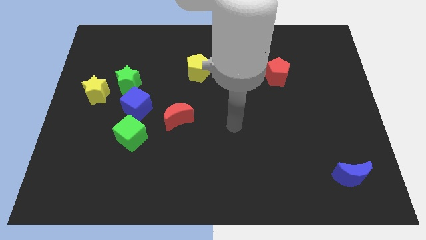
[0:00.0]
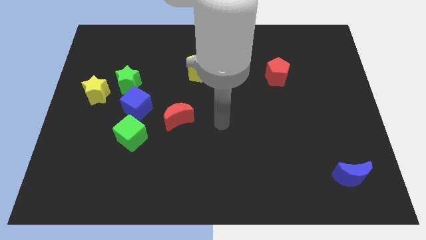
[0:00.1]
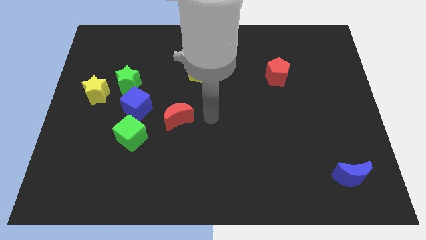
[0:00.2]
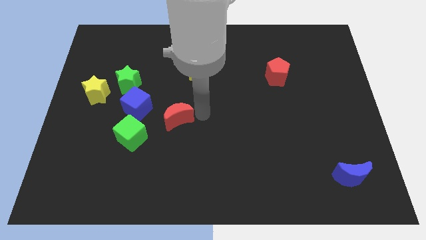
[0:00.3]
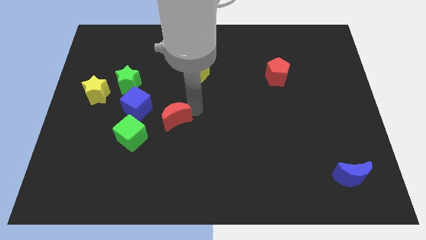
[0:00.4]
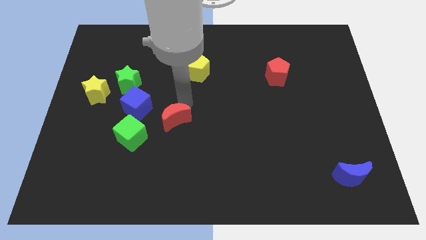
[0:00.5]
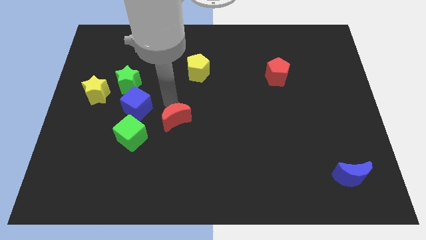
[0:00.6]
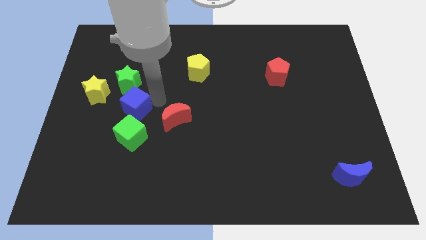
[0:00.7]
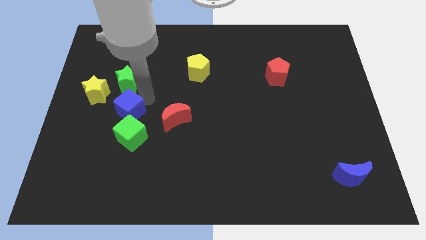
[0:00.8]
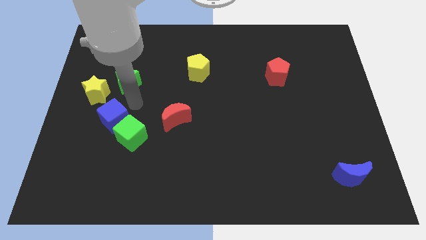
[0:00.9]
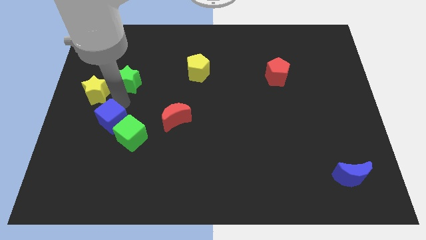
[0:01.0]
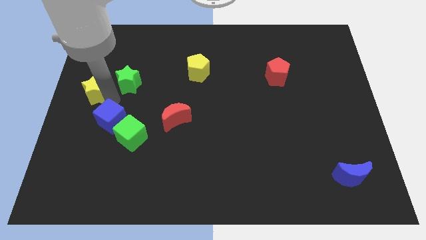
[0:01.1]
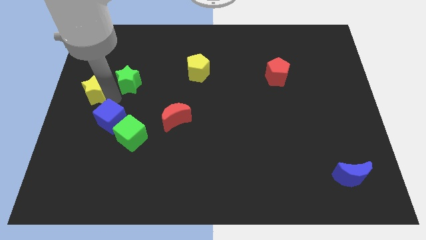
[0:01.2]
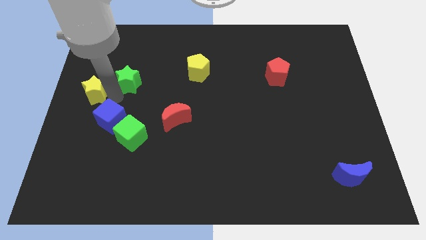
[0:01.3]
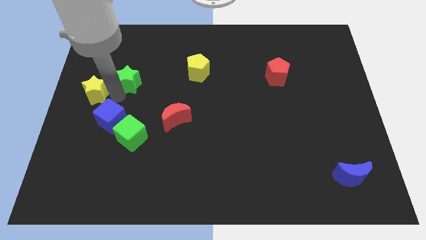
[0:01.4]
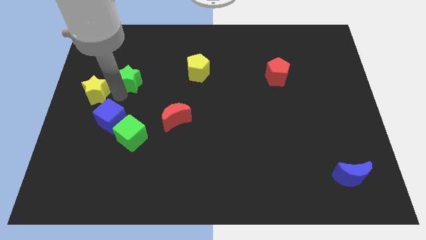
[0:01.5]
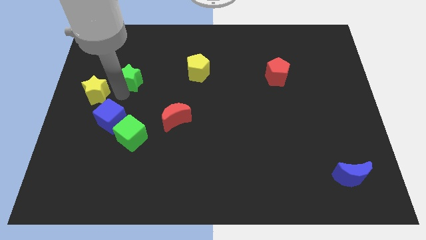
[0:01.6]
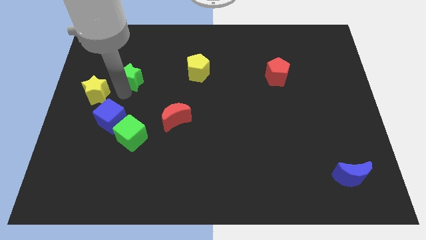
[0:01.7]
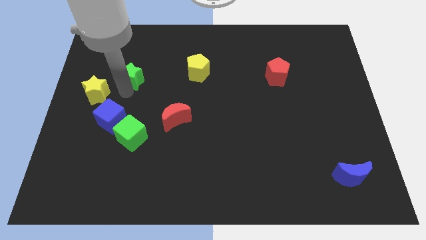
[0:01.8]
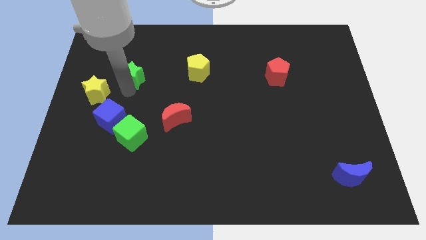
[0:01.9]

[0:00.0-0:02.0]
pull the green star apart from the blue cube and yellow star

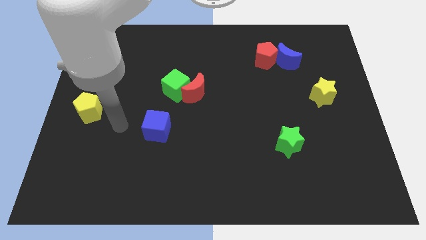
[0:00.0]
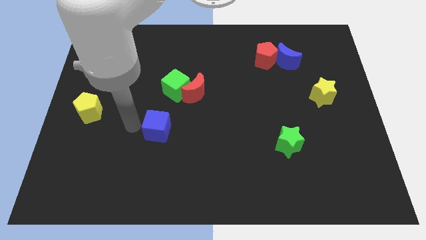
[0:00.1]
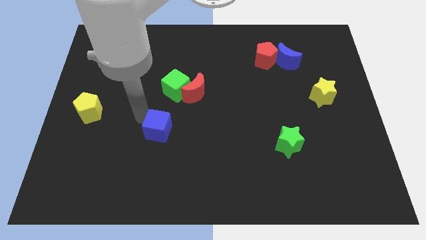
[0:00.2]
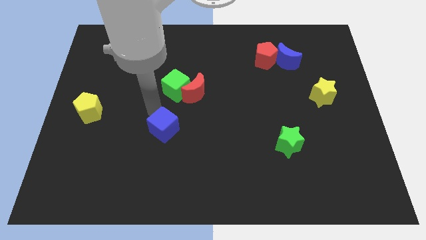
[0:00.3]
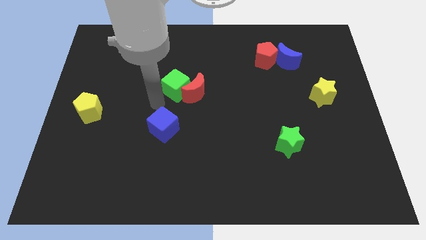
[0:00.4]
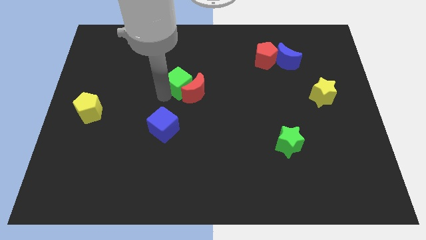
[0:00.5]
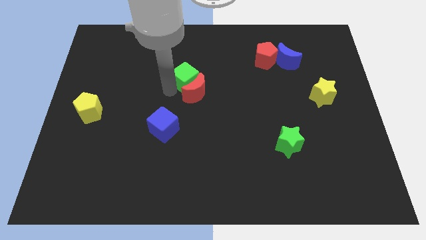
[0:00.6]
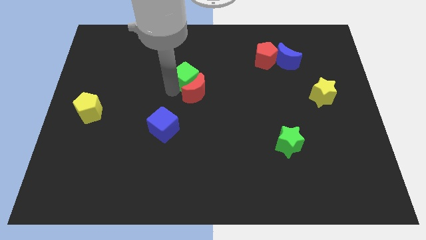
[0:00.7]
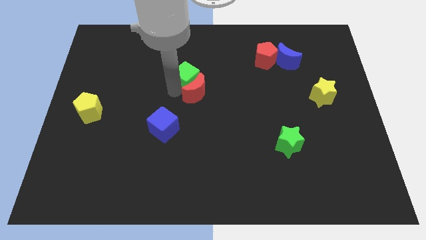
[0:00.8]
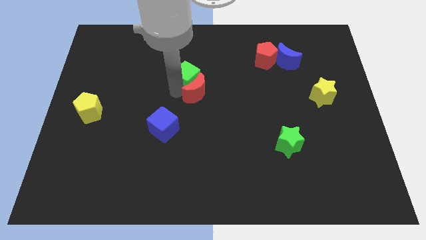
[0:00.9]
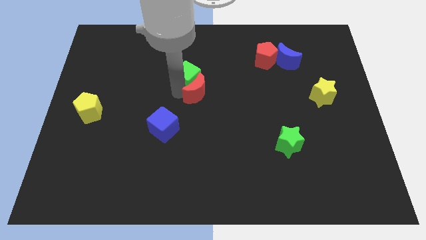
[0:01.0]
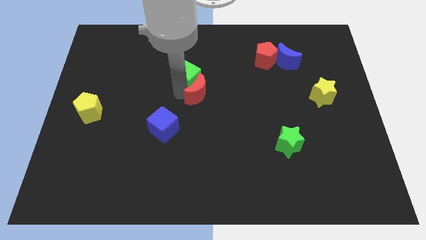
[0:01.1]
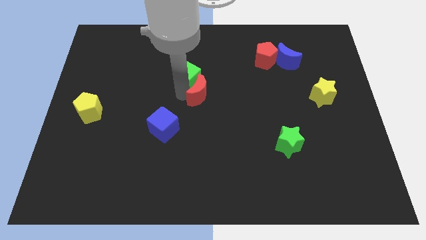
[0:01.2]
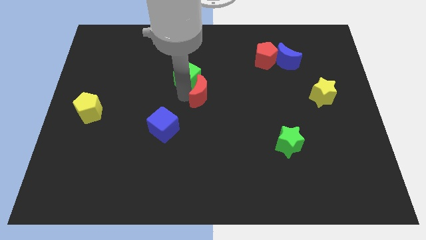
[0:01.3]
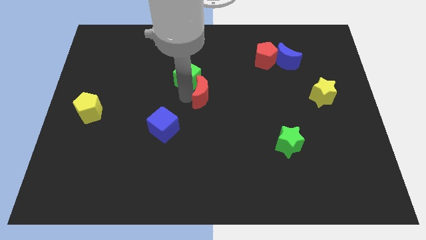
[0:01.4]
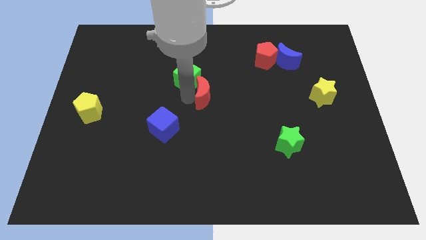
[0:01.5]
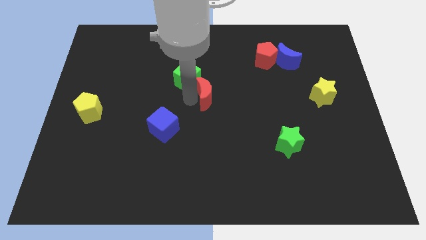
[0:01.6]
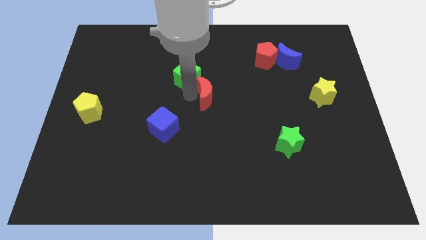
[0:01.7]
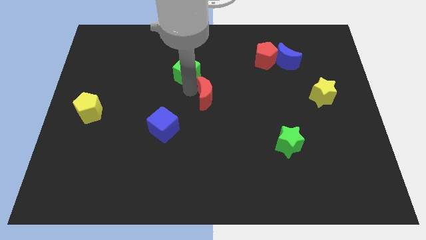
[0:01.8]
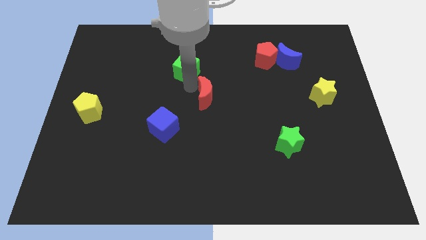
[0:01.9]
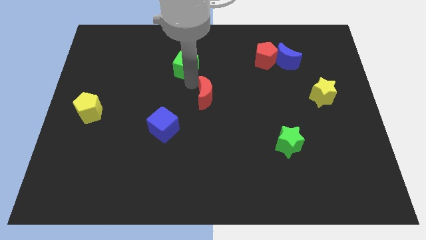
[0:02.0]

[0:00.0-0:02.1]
separate the red moon from the green cube

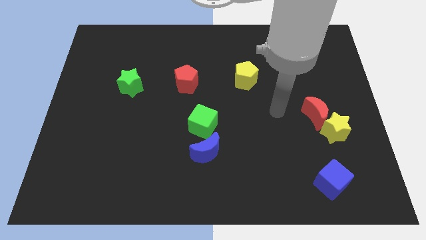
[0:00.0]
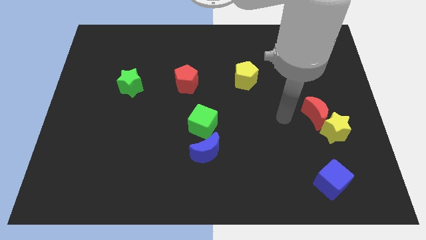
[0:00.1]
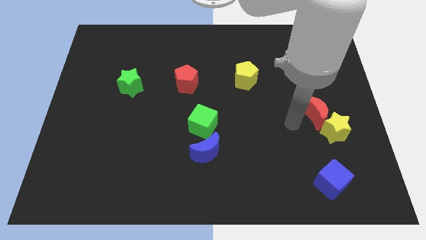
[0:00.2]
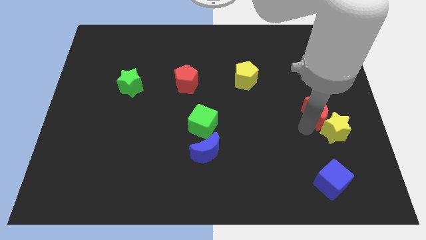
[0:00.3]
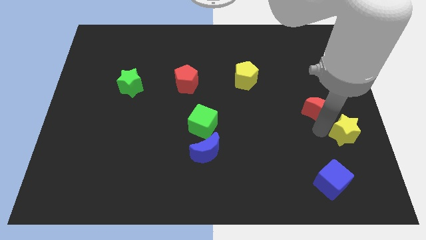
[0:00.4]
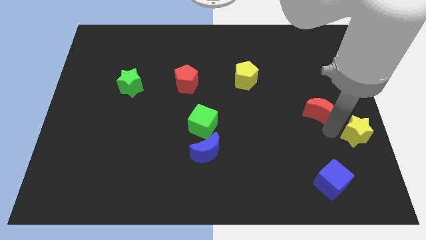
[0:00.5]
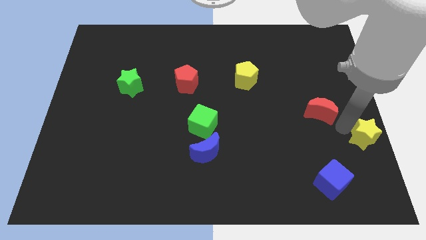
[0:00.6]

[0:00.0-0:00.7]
pull the red moon apart from the yellow star

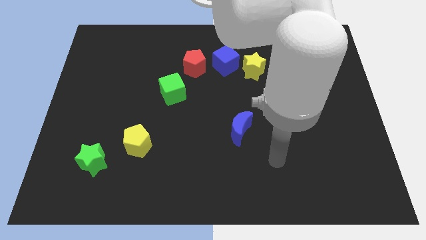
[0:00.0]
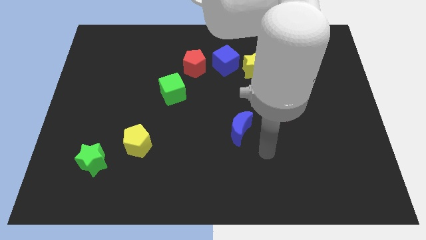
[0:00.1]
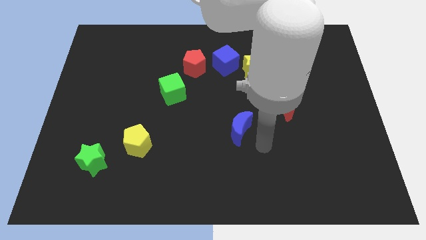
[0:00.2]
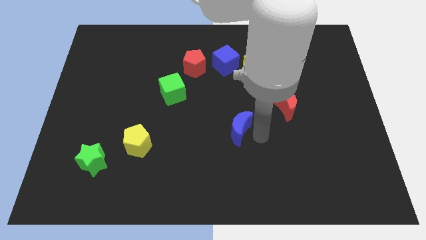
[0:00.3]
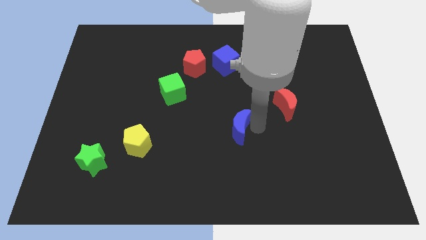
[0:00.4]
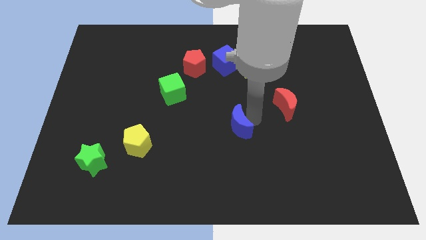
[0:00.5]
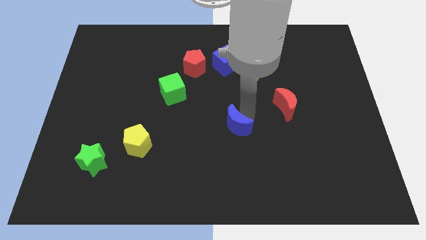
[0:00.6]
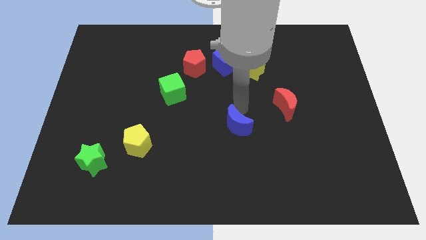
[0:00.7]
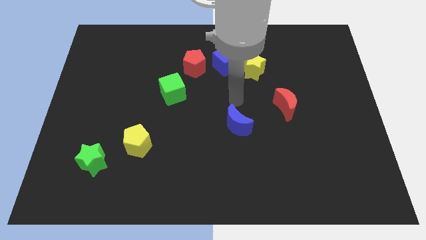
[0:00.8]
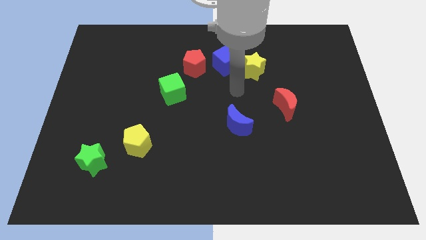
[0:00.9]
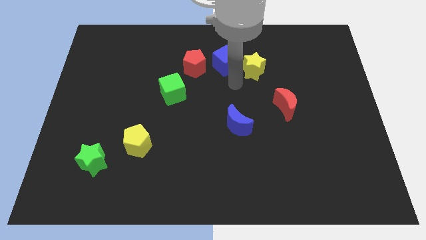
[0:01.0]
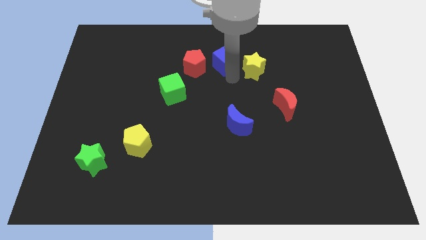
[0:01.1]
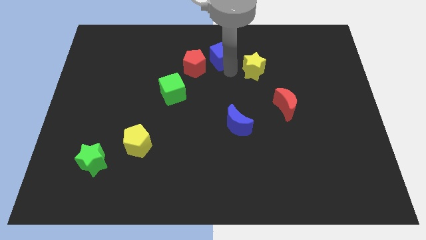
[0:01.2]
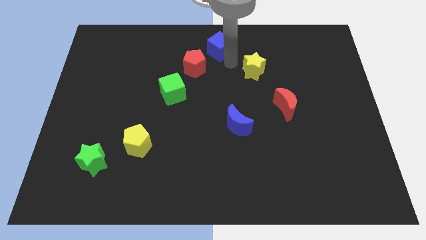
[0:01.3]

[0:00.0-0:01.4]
pull the yellow star apart from the blue cube

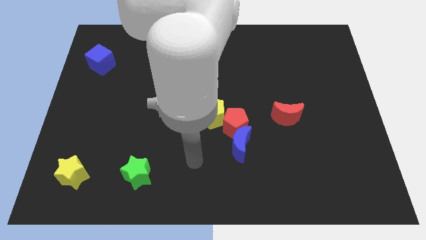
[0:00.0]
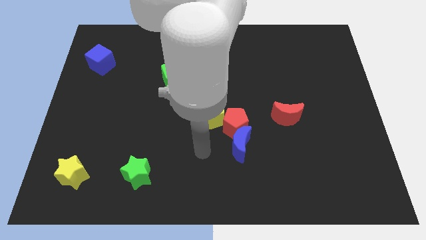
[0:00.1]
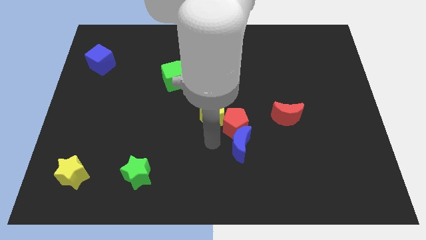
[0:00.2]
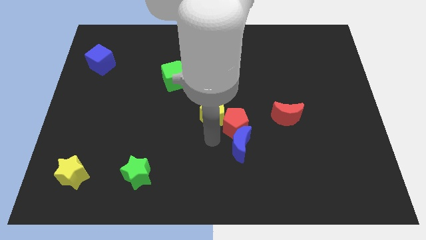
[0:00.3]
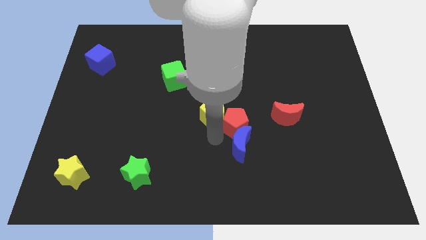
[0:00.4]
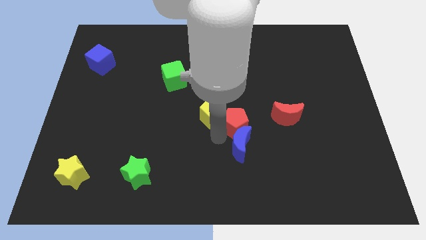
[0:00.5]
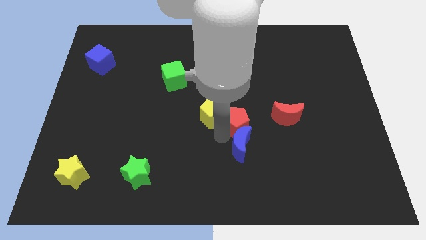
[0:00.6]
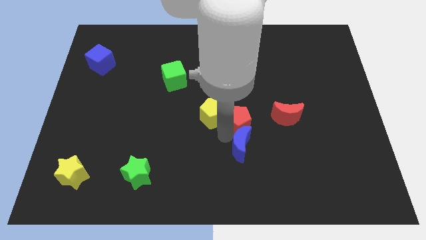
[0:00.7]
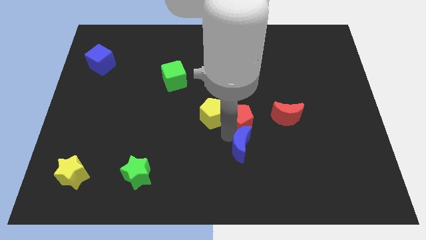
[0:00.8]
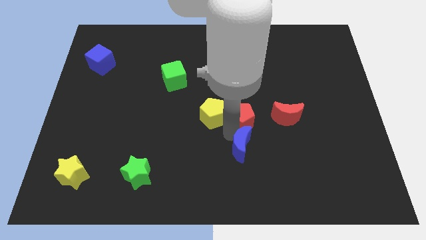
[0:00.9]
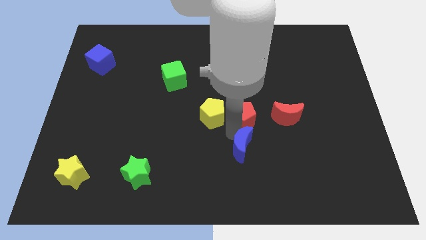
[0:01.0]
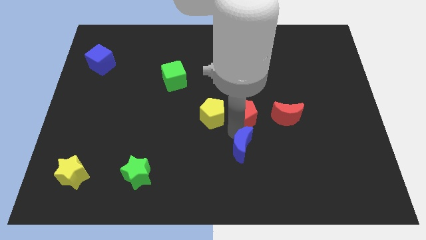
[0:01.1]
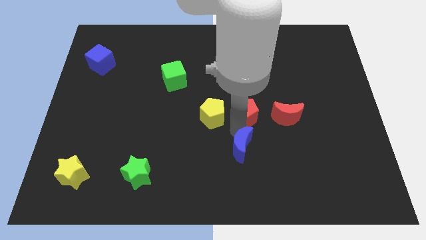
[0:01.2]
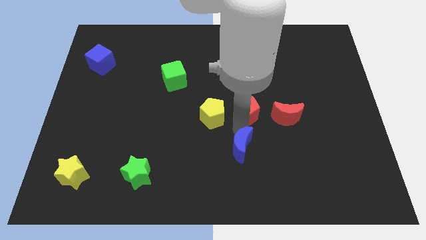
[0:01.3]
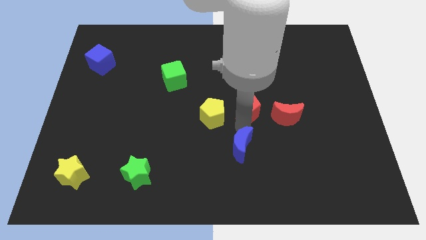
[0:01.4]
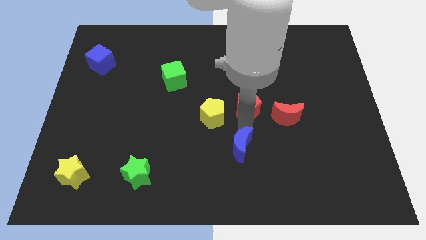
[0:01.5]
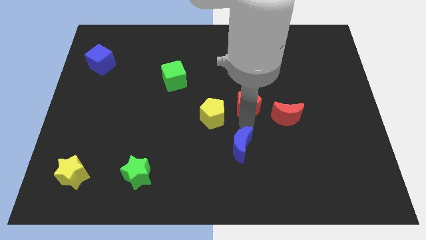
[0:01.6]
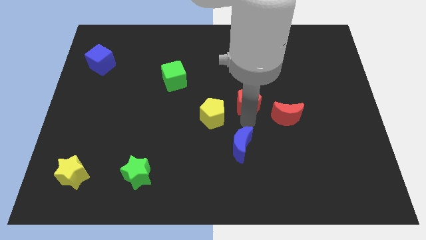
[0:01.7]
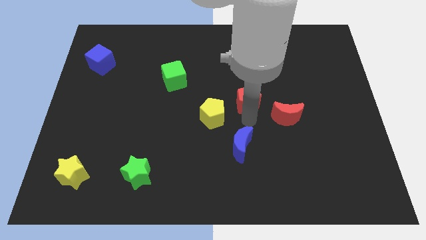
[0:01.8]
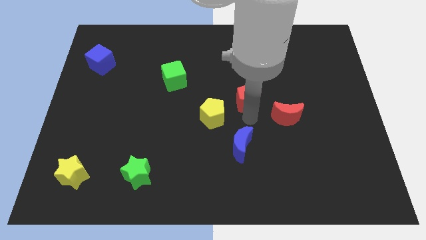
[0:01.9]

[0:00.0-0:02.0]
move the red pentagon away from the blue moon and yellow pentagon

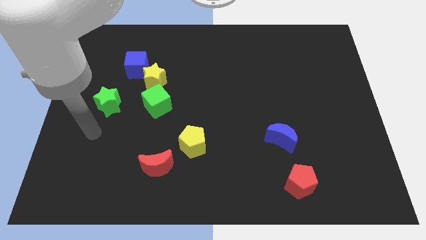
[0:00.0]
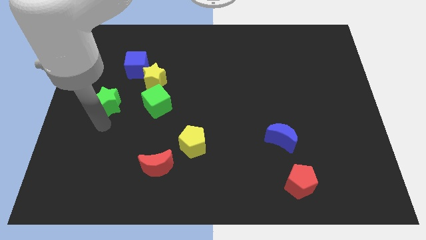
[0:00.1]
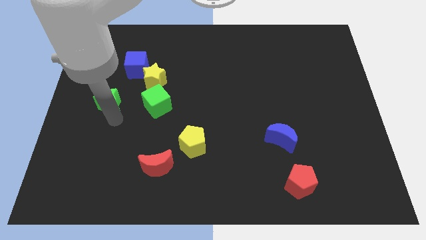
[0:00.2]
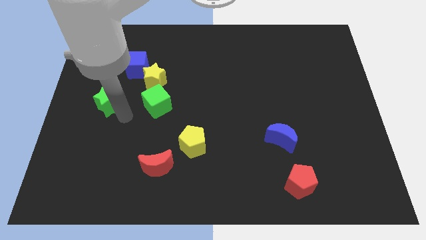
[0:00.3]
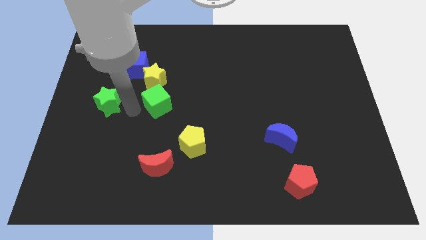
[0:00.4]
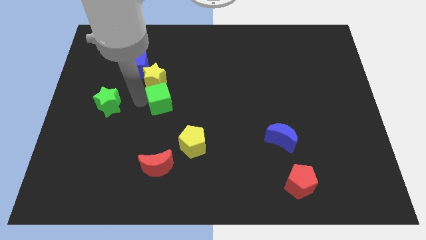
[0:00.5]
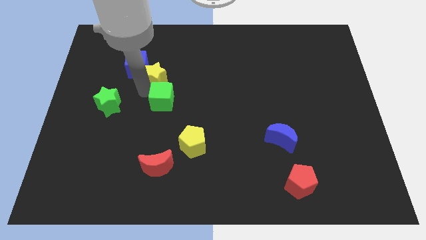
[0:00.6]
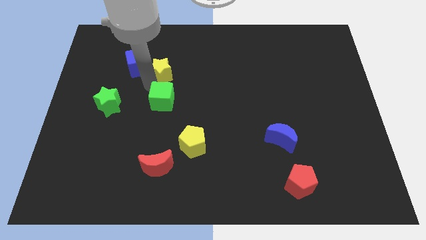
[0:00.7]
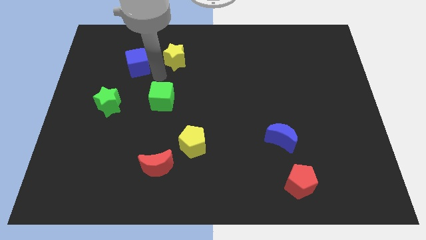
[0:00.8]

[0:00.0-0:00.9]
move the blue cube away from the yellow star
